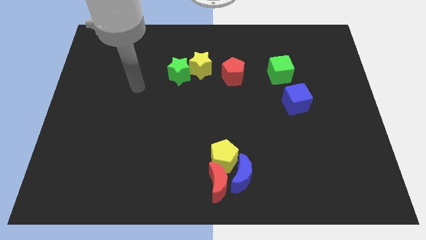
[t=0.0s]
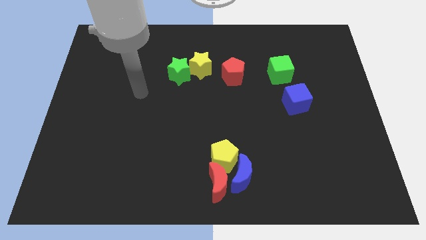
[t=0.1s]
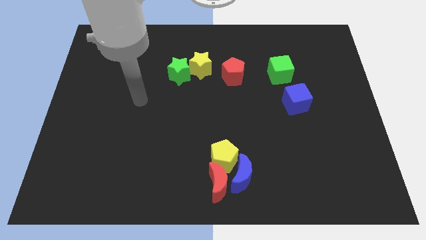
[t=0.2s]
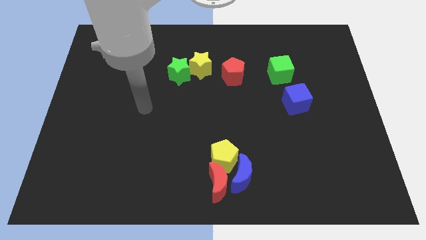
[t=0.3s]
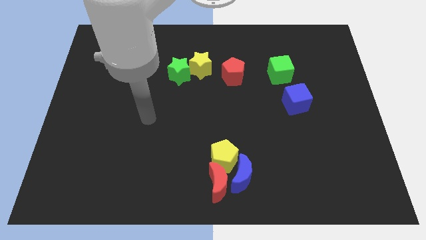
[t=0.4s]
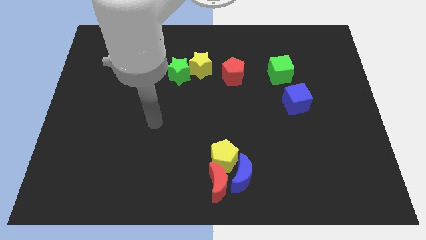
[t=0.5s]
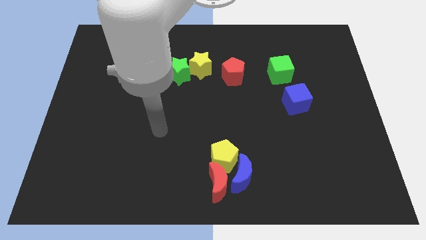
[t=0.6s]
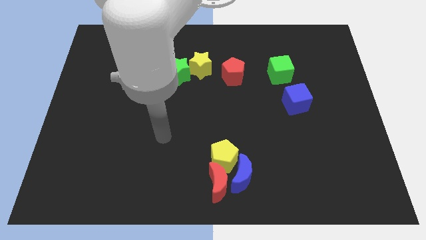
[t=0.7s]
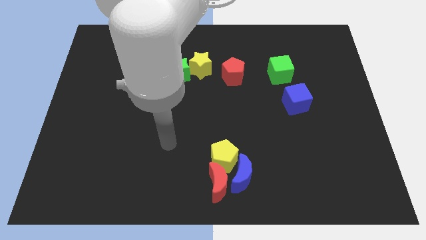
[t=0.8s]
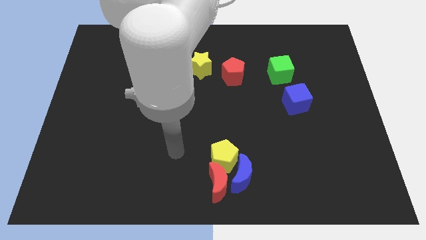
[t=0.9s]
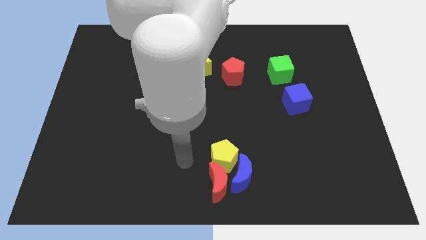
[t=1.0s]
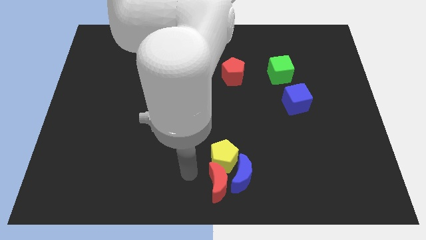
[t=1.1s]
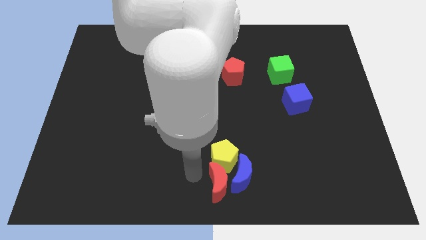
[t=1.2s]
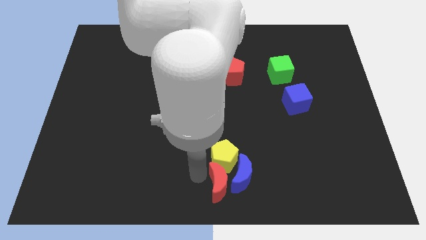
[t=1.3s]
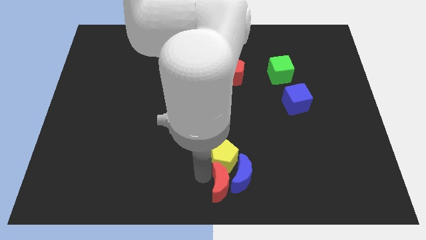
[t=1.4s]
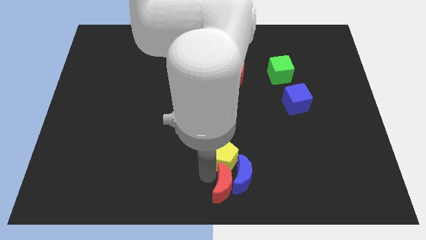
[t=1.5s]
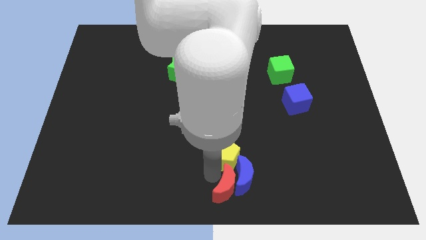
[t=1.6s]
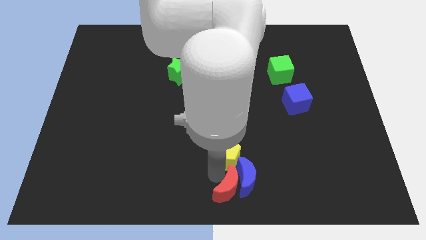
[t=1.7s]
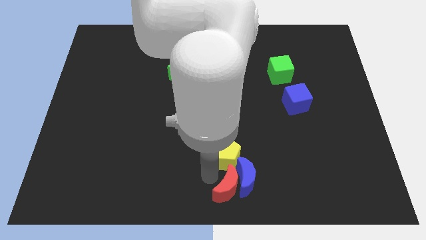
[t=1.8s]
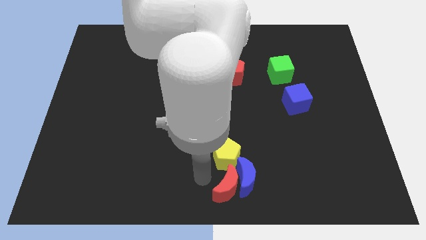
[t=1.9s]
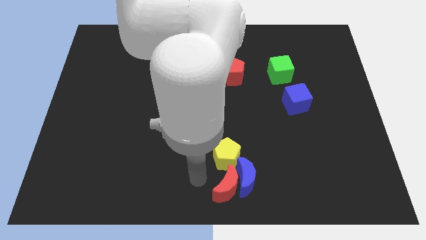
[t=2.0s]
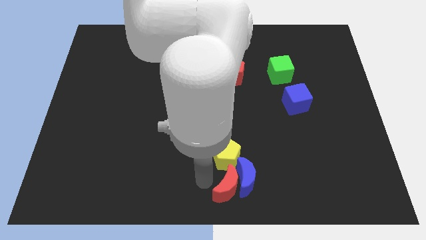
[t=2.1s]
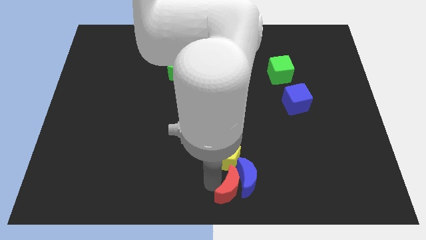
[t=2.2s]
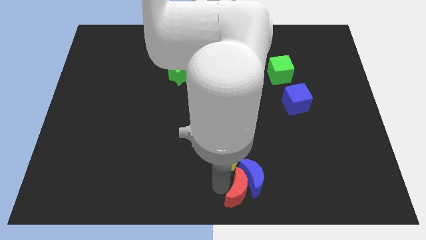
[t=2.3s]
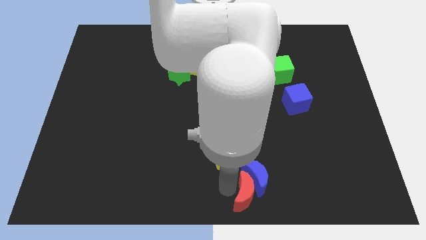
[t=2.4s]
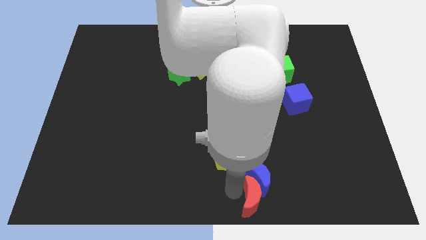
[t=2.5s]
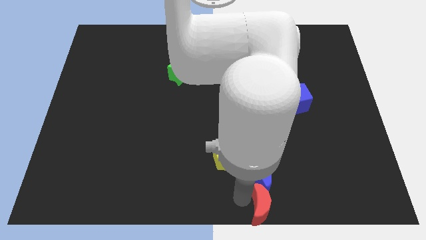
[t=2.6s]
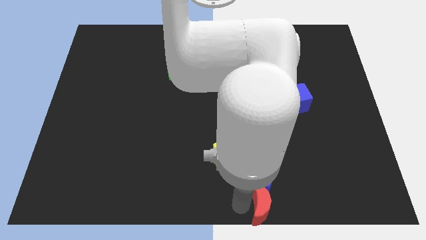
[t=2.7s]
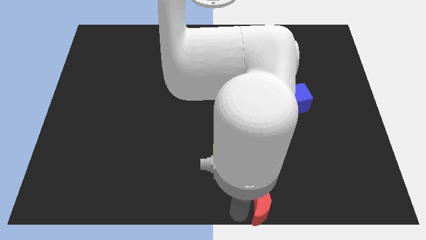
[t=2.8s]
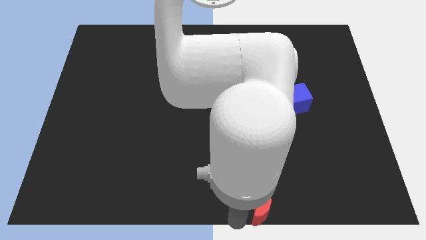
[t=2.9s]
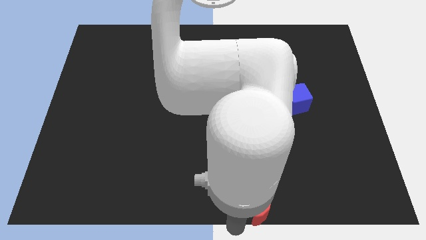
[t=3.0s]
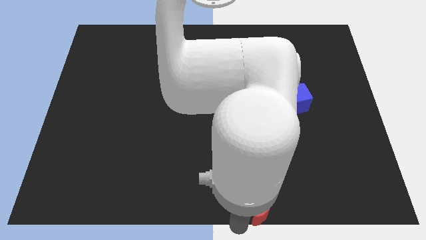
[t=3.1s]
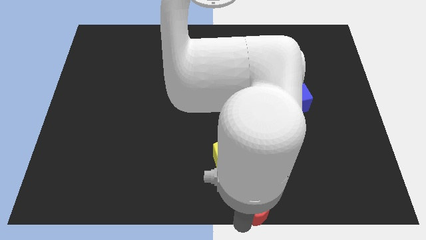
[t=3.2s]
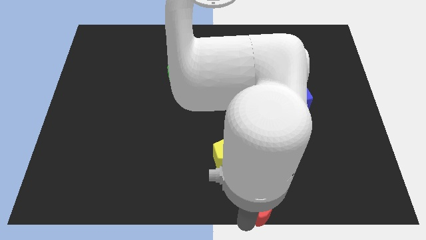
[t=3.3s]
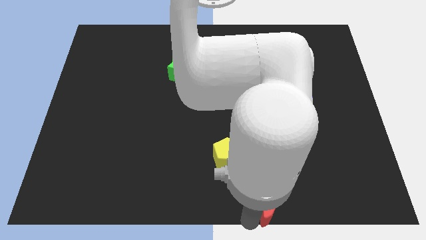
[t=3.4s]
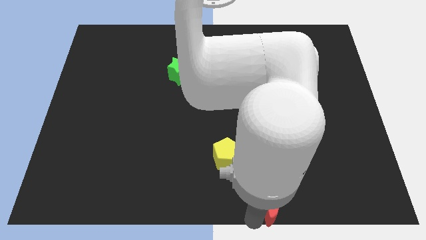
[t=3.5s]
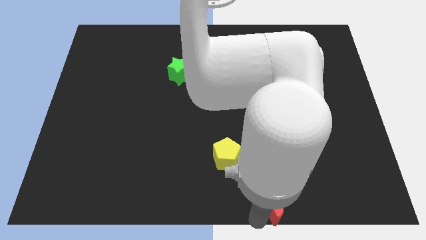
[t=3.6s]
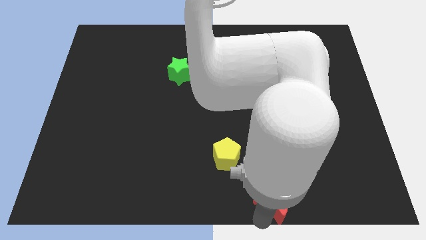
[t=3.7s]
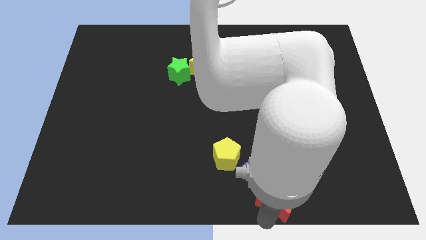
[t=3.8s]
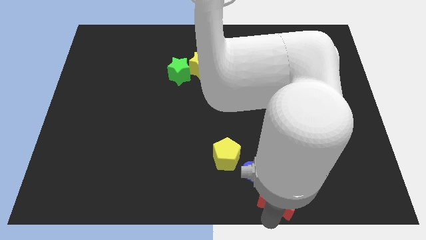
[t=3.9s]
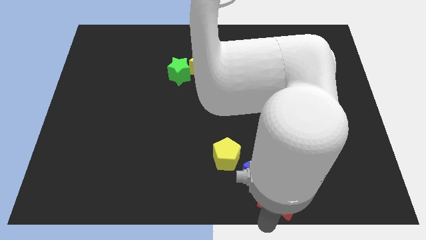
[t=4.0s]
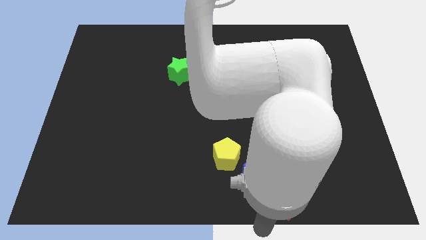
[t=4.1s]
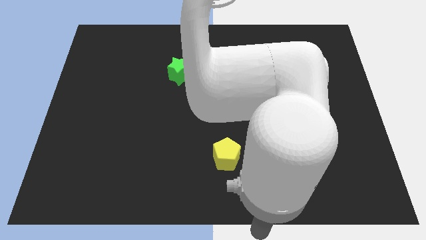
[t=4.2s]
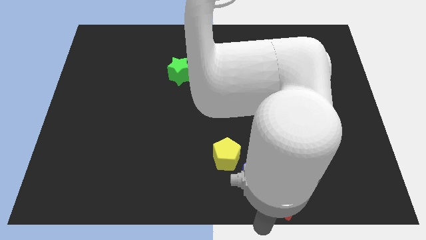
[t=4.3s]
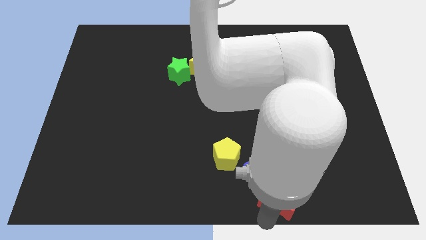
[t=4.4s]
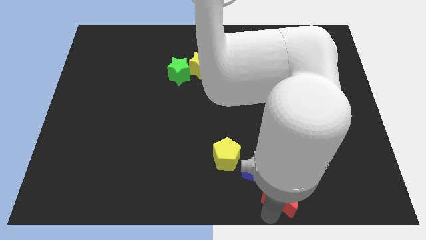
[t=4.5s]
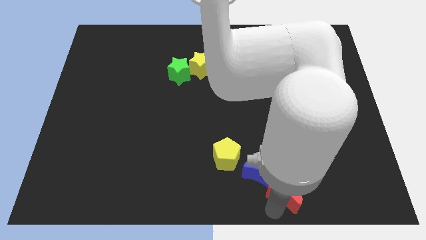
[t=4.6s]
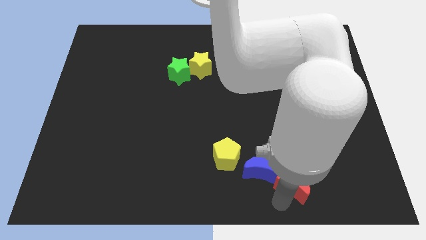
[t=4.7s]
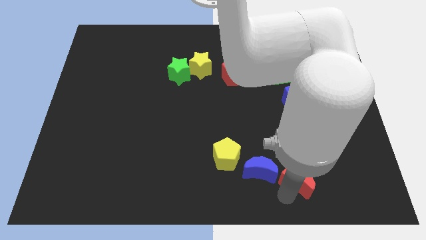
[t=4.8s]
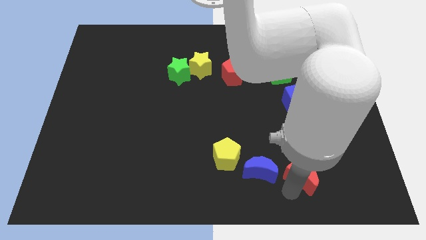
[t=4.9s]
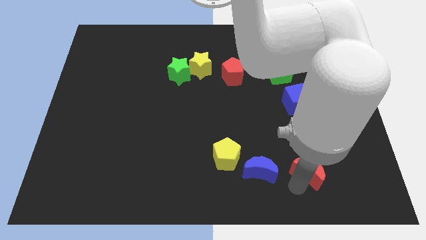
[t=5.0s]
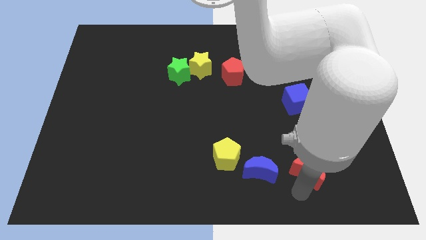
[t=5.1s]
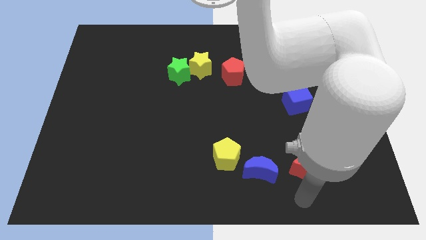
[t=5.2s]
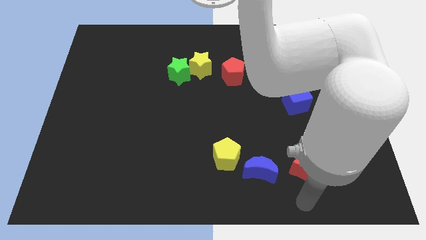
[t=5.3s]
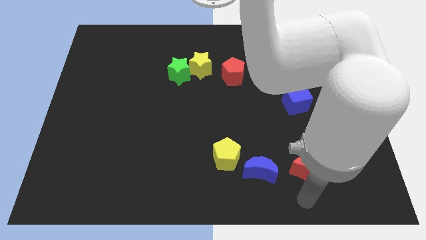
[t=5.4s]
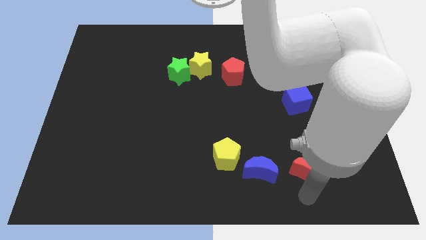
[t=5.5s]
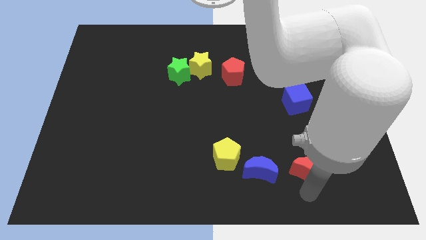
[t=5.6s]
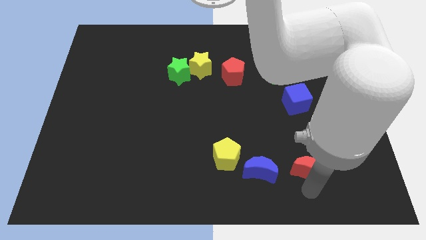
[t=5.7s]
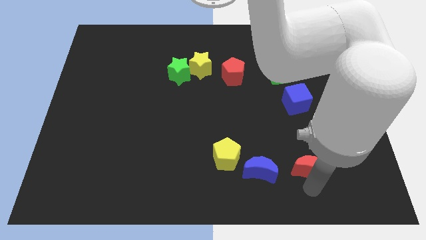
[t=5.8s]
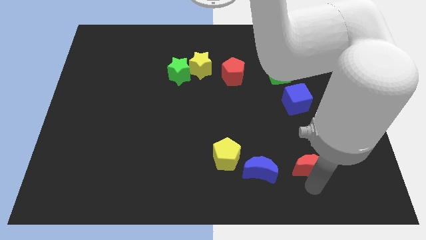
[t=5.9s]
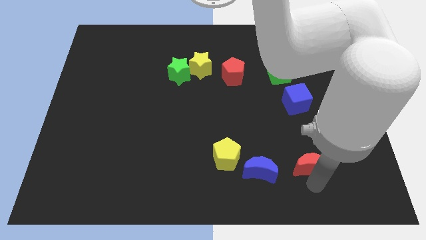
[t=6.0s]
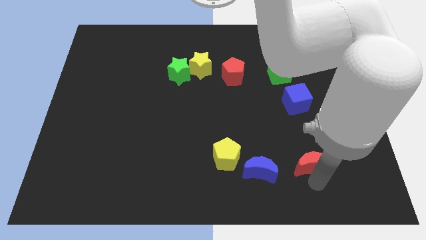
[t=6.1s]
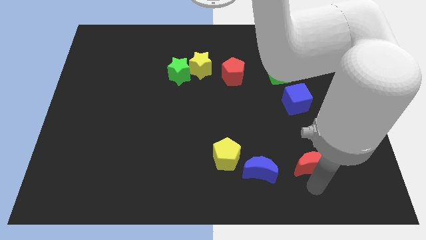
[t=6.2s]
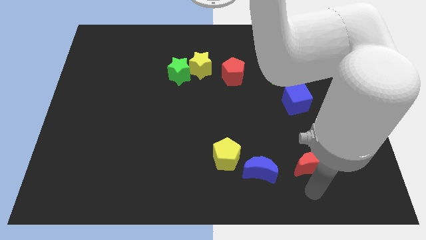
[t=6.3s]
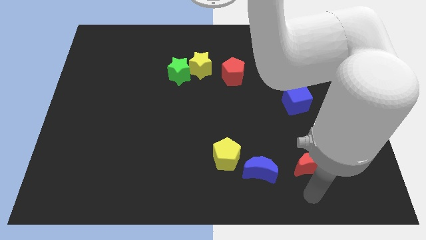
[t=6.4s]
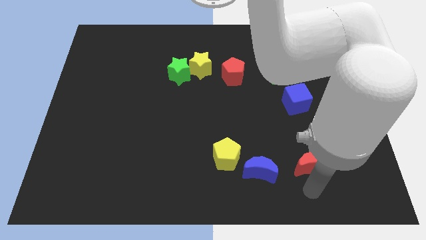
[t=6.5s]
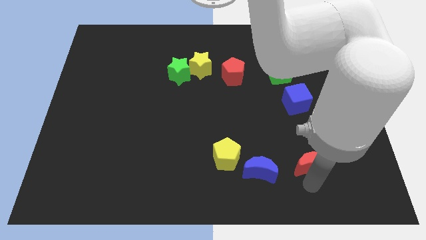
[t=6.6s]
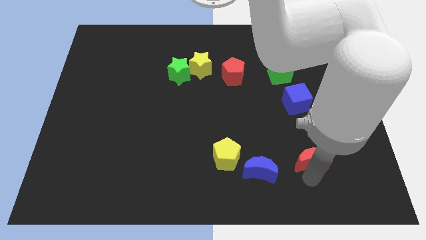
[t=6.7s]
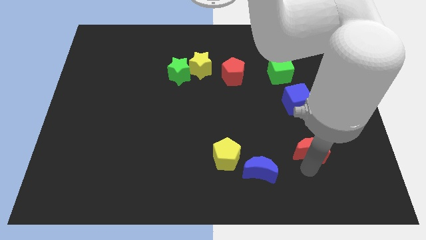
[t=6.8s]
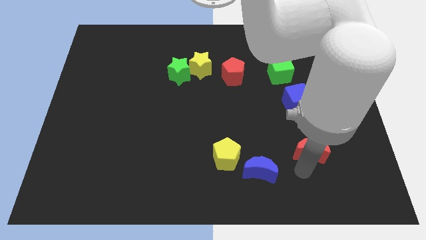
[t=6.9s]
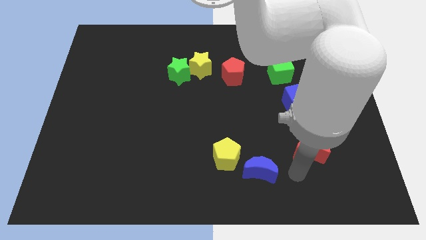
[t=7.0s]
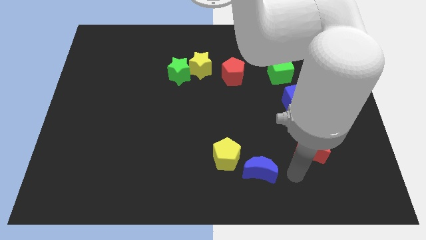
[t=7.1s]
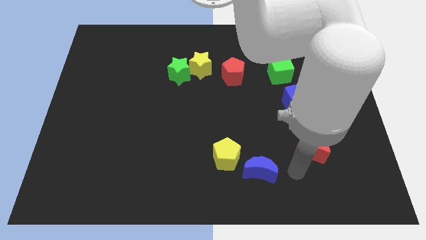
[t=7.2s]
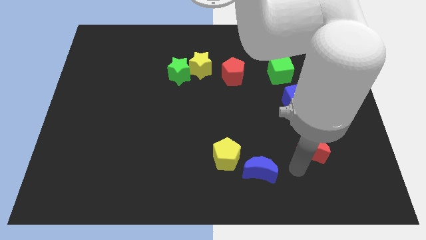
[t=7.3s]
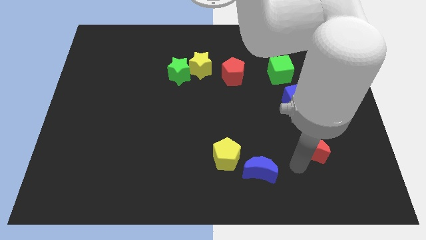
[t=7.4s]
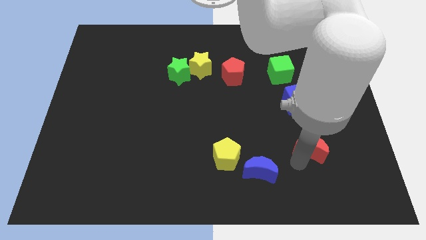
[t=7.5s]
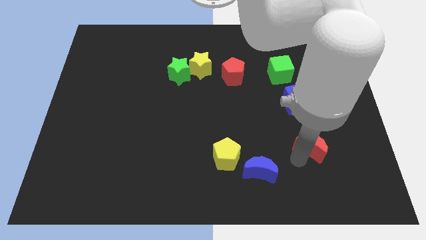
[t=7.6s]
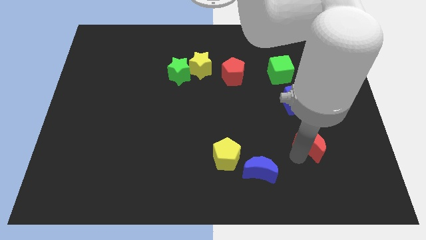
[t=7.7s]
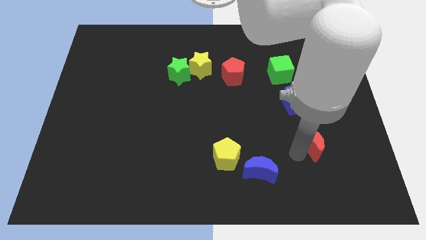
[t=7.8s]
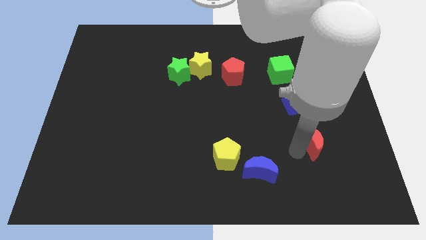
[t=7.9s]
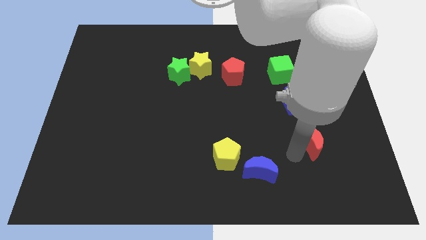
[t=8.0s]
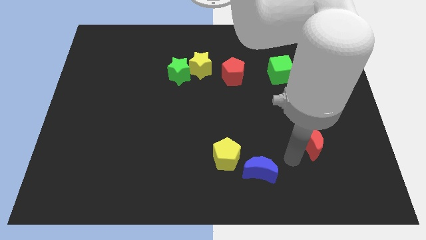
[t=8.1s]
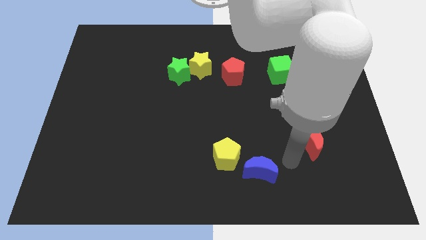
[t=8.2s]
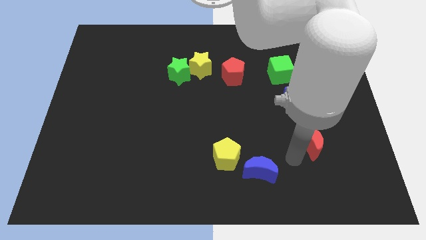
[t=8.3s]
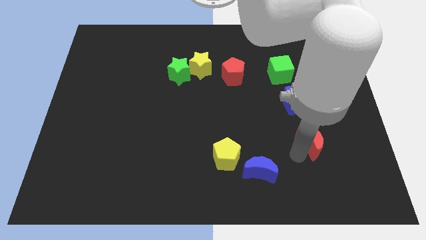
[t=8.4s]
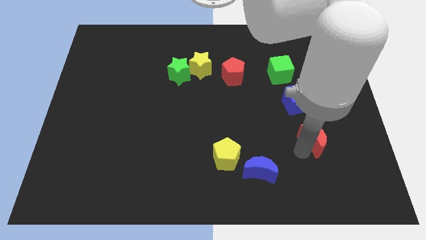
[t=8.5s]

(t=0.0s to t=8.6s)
move the red moon upwards and right diagonally
